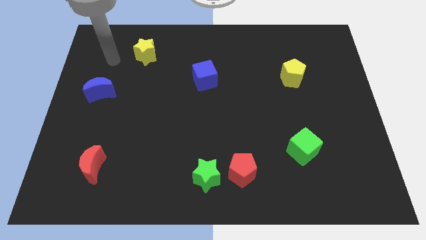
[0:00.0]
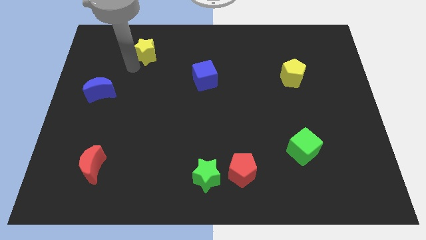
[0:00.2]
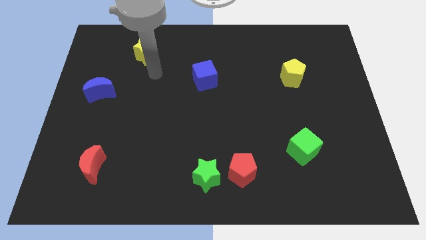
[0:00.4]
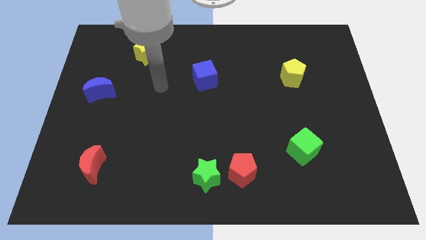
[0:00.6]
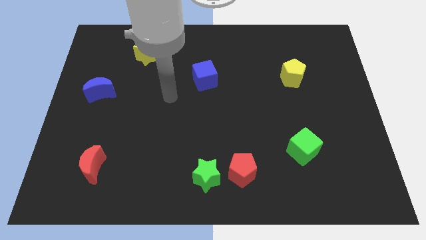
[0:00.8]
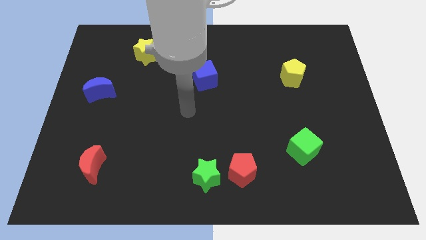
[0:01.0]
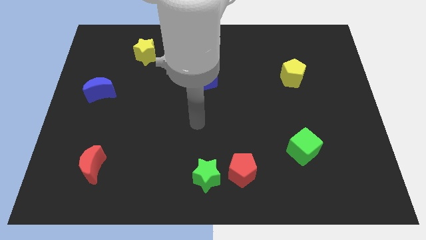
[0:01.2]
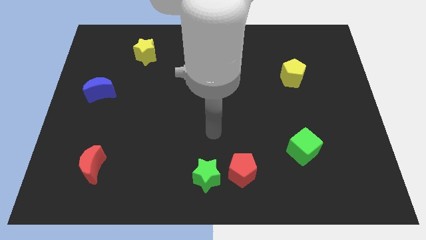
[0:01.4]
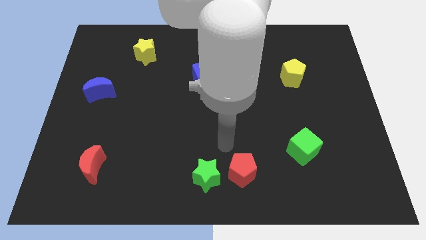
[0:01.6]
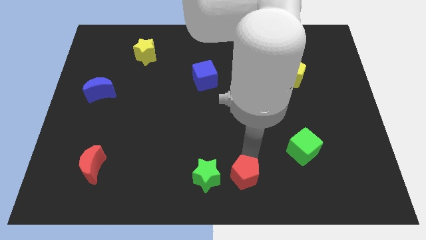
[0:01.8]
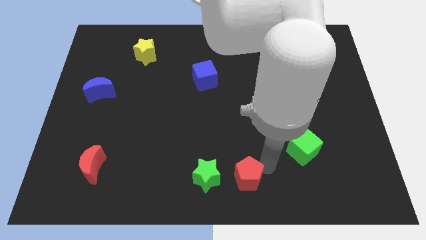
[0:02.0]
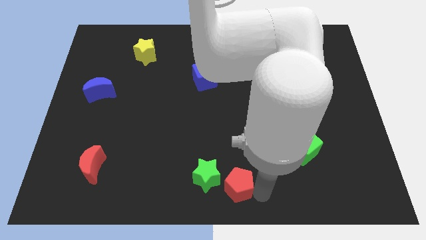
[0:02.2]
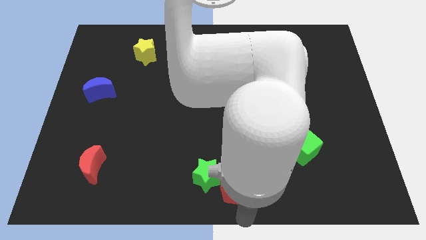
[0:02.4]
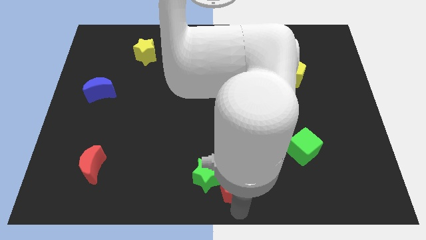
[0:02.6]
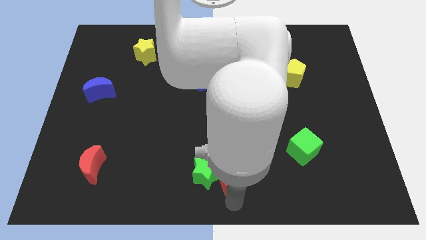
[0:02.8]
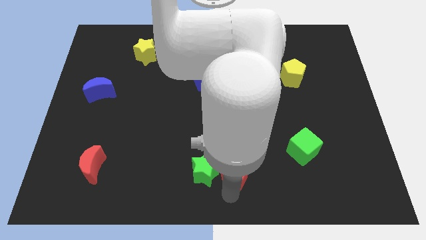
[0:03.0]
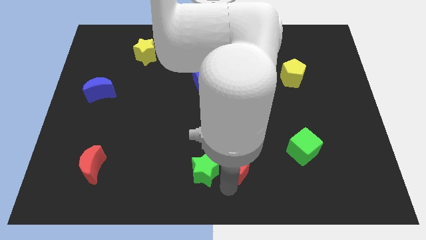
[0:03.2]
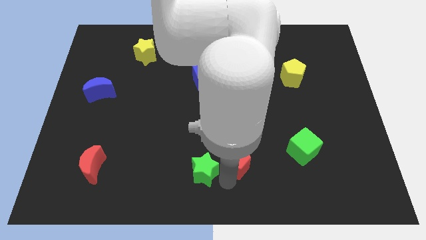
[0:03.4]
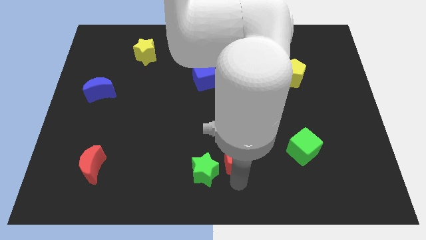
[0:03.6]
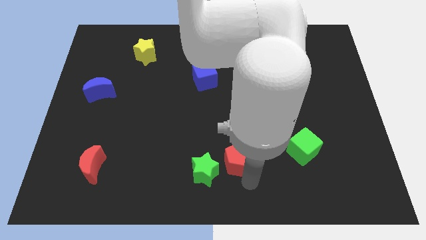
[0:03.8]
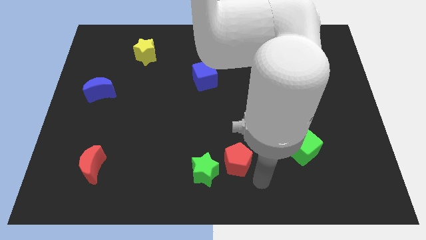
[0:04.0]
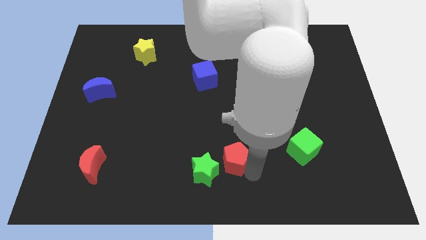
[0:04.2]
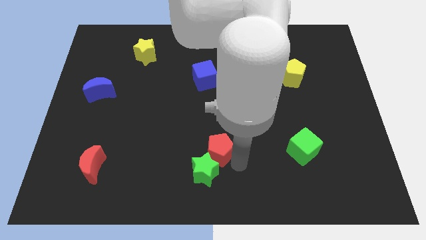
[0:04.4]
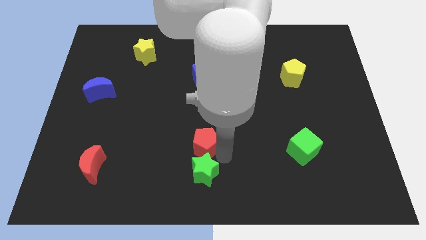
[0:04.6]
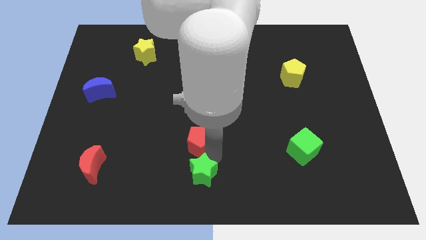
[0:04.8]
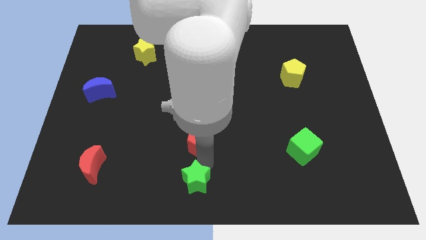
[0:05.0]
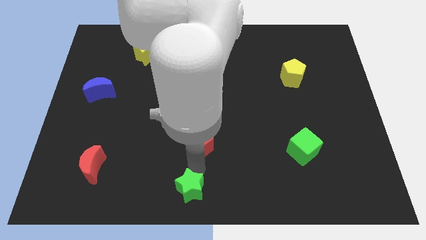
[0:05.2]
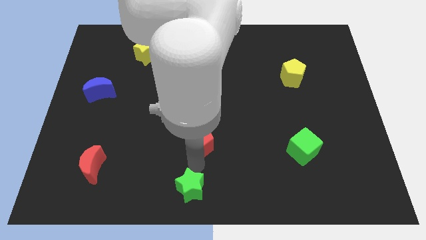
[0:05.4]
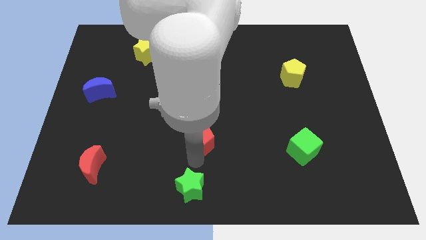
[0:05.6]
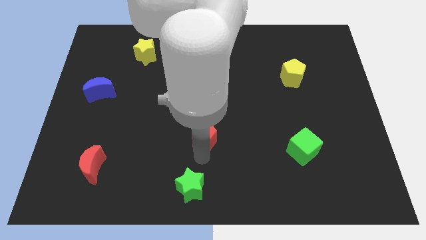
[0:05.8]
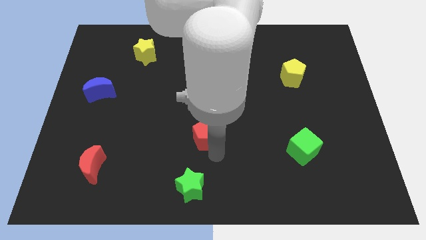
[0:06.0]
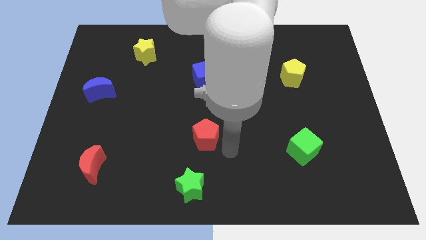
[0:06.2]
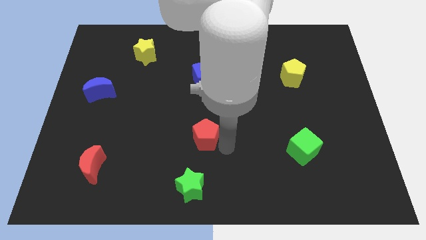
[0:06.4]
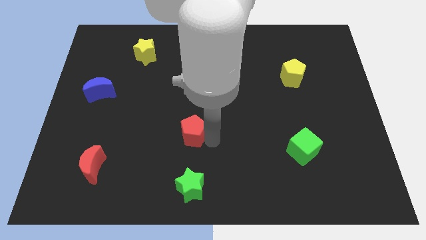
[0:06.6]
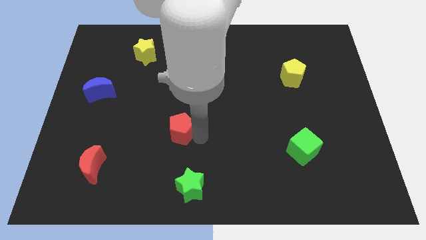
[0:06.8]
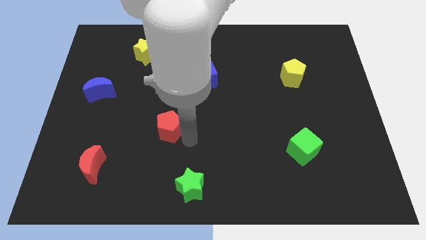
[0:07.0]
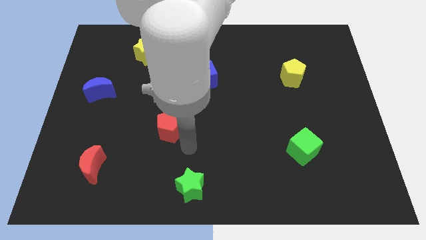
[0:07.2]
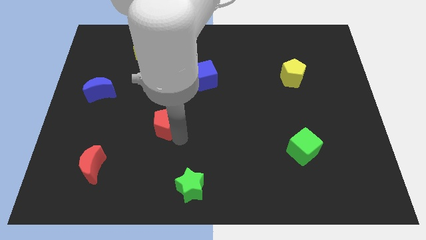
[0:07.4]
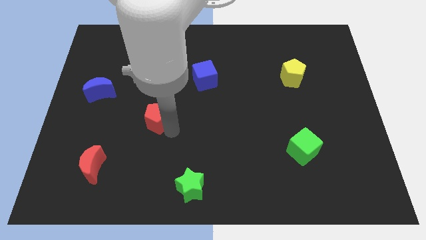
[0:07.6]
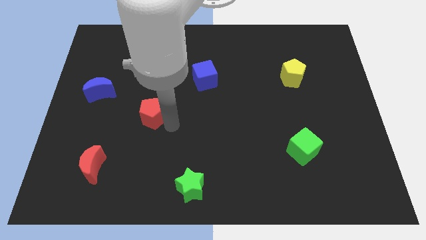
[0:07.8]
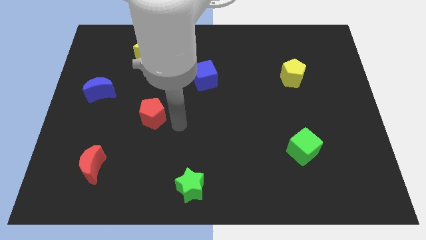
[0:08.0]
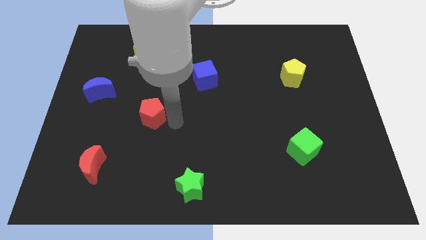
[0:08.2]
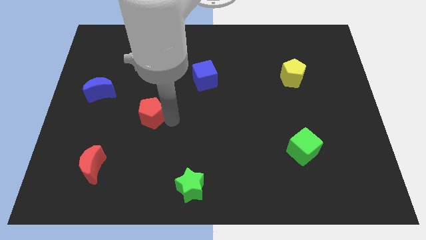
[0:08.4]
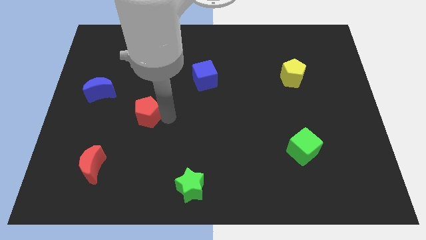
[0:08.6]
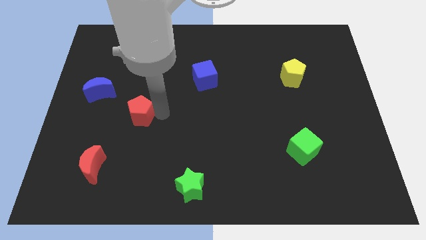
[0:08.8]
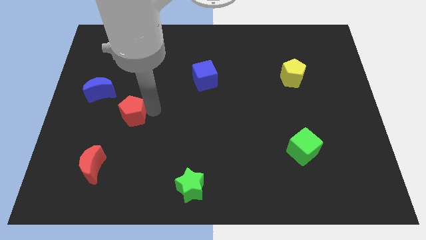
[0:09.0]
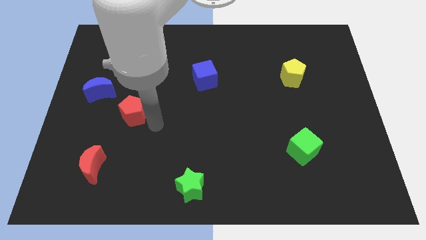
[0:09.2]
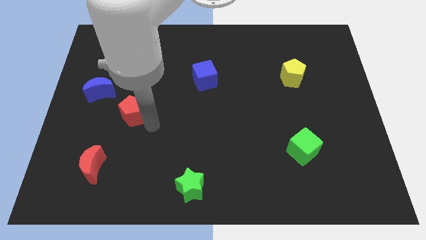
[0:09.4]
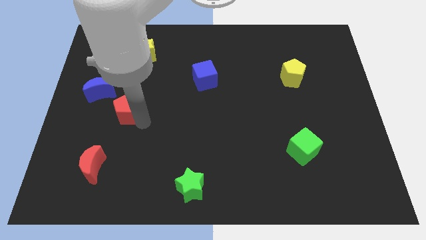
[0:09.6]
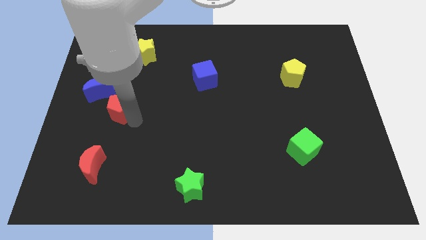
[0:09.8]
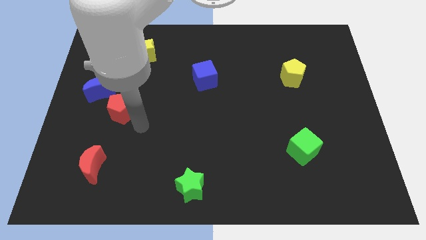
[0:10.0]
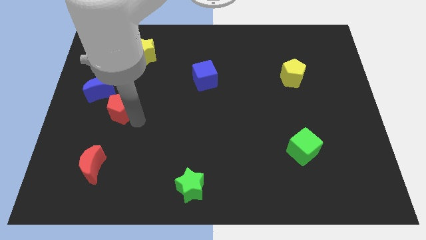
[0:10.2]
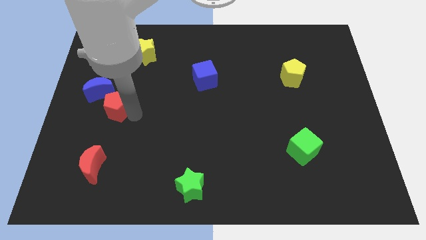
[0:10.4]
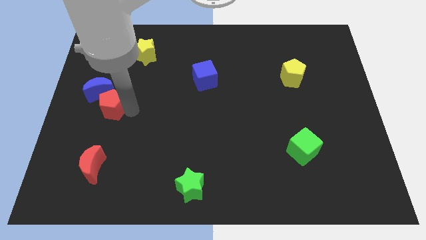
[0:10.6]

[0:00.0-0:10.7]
put the red pentagon close to the blue moon

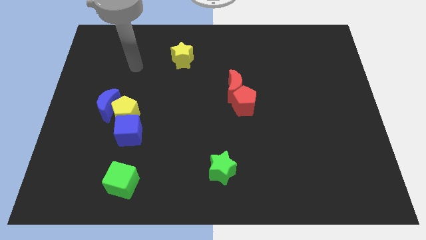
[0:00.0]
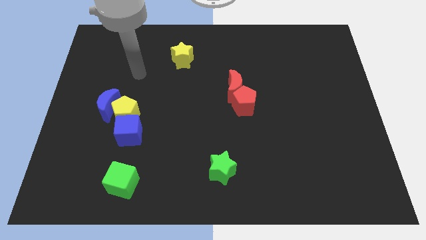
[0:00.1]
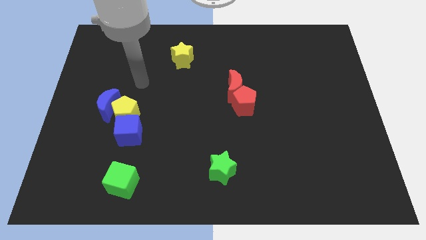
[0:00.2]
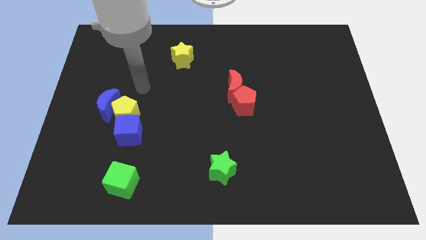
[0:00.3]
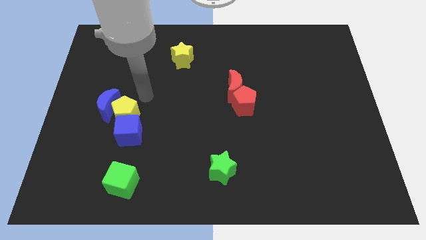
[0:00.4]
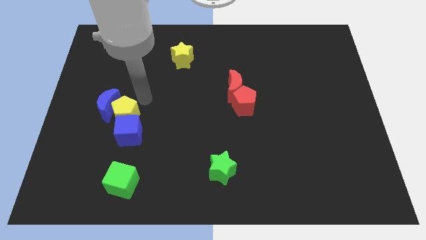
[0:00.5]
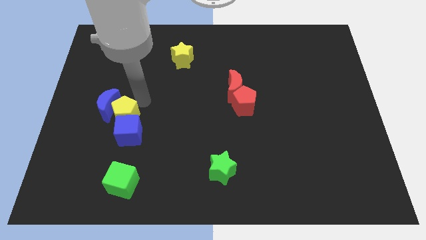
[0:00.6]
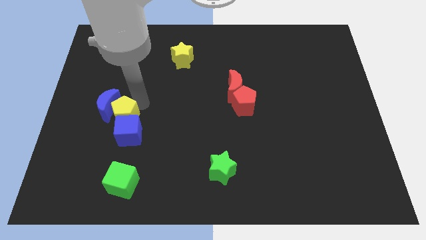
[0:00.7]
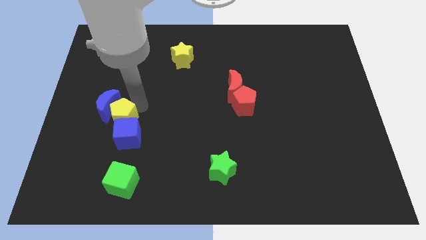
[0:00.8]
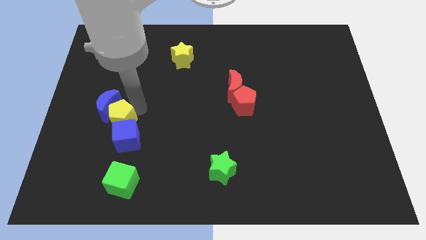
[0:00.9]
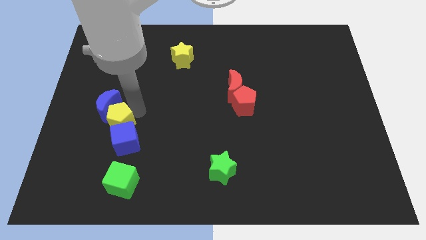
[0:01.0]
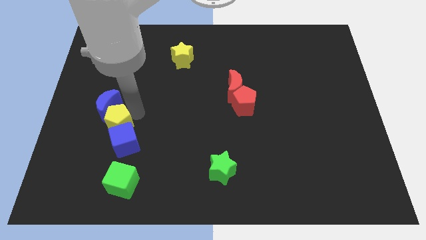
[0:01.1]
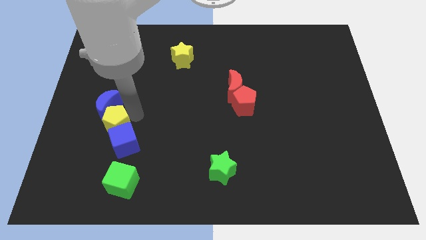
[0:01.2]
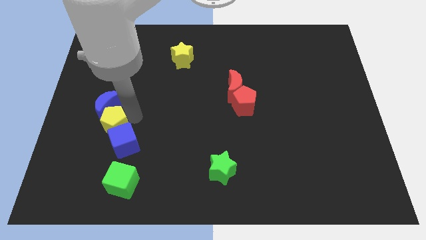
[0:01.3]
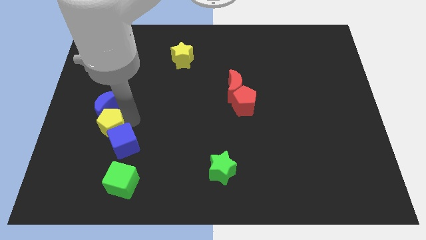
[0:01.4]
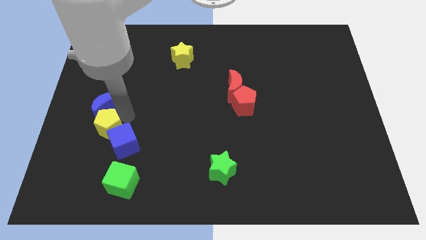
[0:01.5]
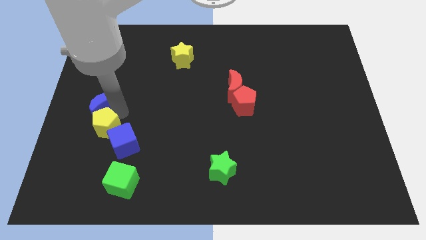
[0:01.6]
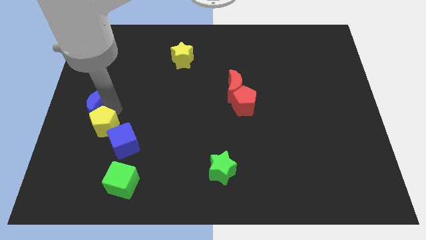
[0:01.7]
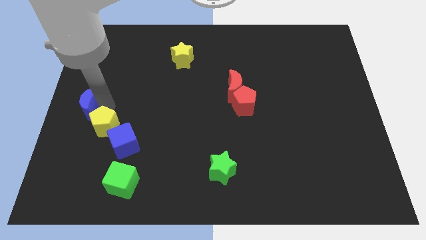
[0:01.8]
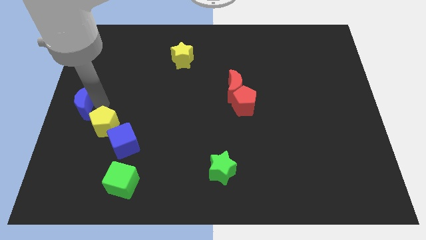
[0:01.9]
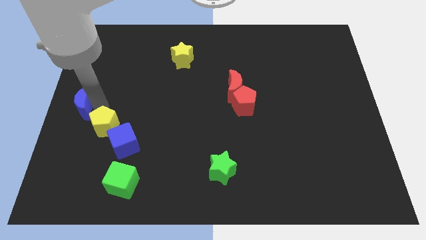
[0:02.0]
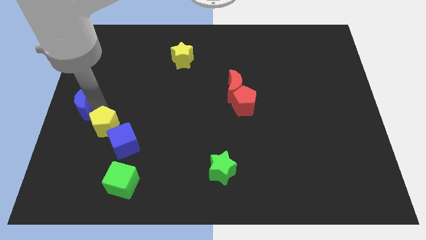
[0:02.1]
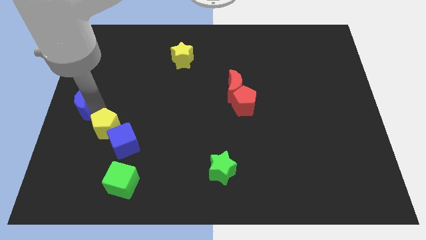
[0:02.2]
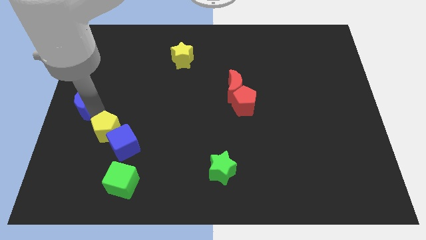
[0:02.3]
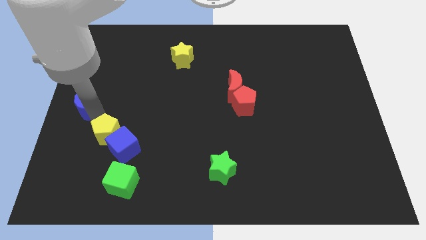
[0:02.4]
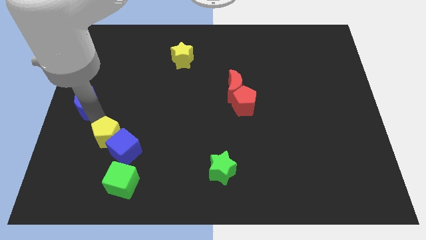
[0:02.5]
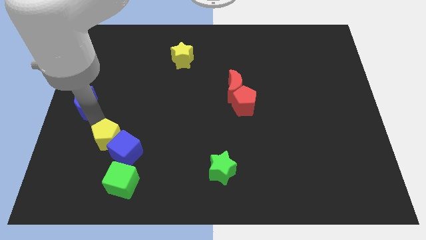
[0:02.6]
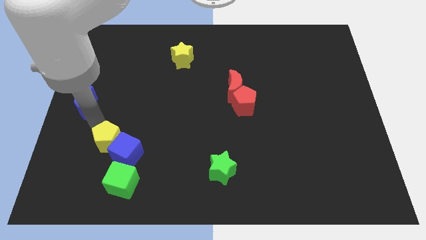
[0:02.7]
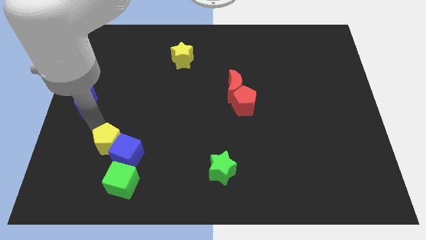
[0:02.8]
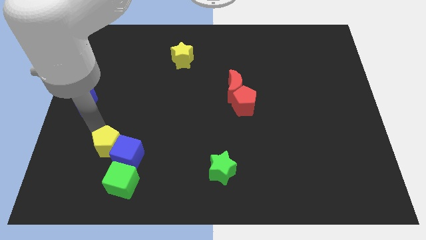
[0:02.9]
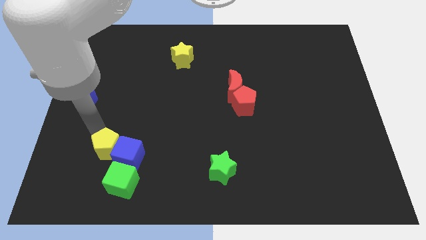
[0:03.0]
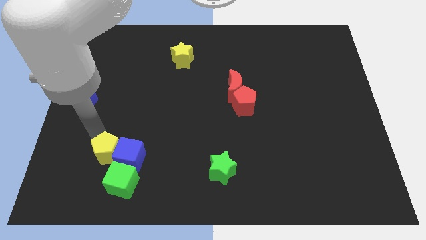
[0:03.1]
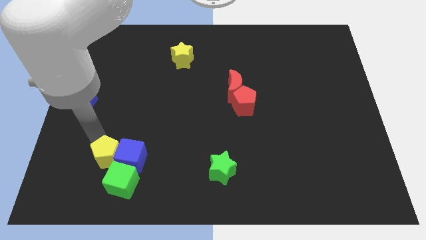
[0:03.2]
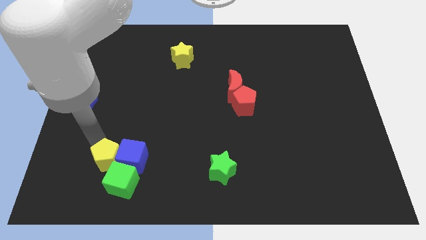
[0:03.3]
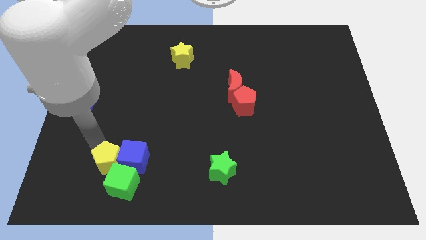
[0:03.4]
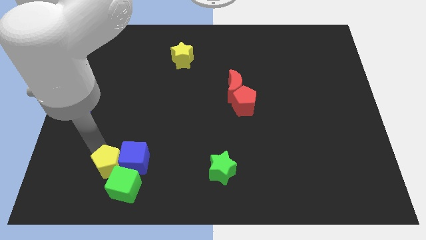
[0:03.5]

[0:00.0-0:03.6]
move the yellow pentagon next to the green cube
